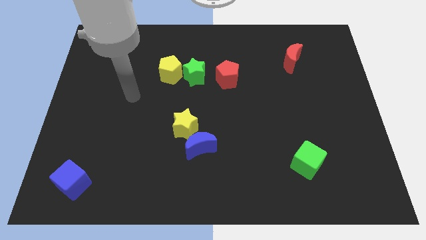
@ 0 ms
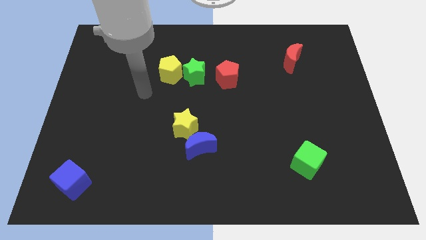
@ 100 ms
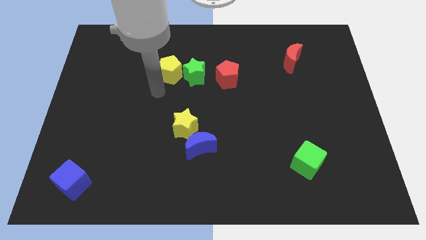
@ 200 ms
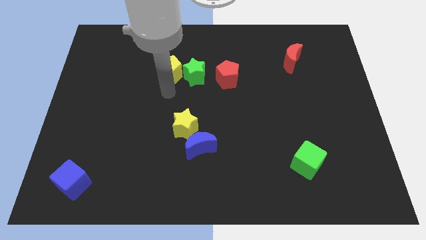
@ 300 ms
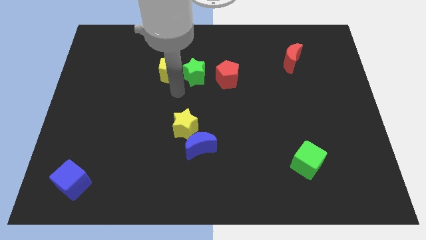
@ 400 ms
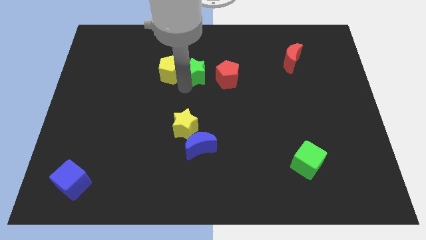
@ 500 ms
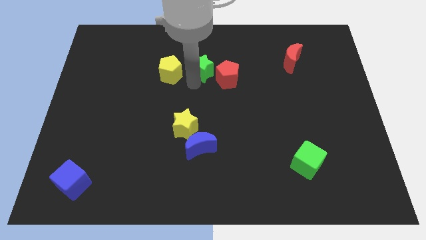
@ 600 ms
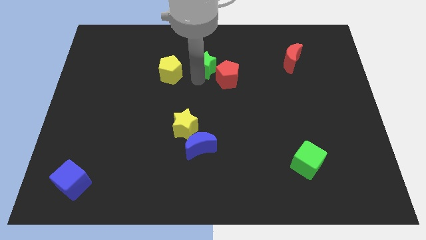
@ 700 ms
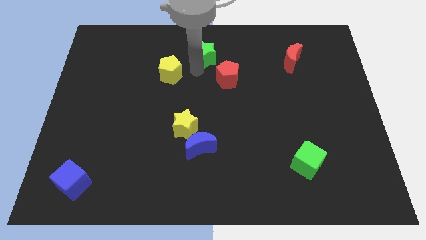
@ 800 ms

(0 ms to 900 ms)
separate the yellow pentagon from the green star

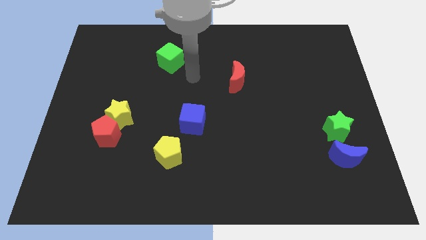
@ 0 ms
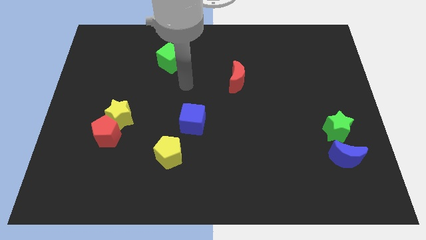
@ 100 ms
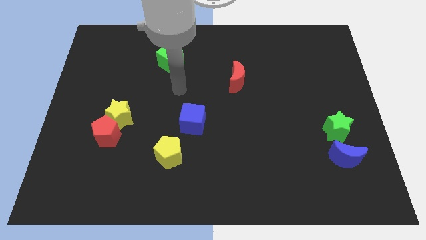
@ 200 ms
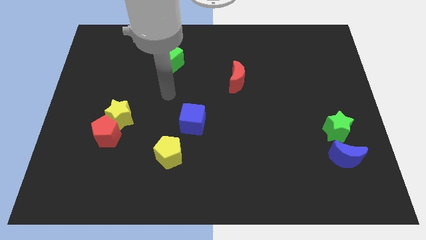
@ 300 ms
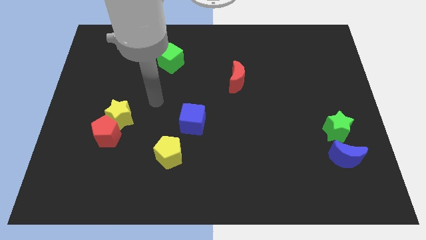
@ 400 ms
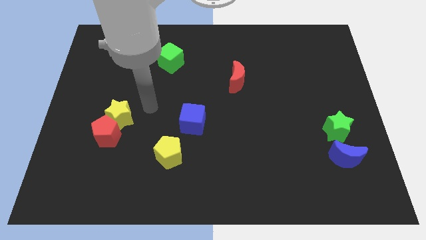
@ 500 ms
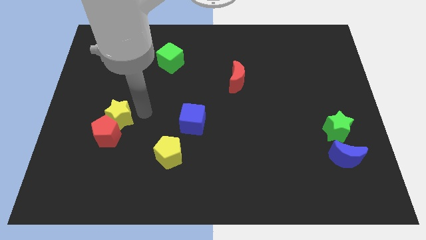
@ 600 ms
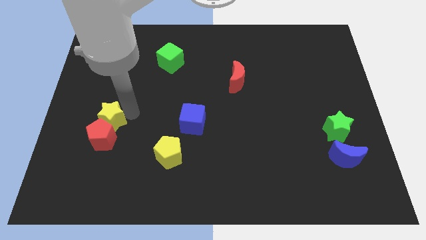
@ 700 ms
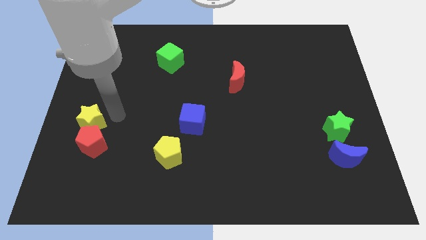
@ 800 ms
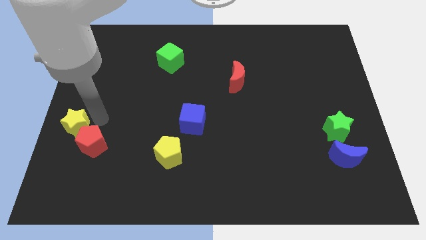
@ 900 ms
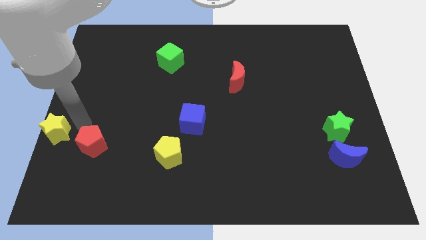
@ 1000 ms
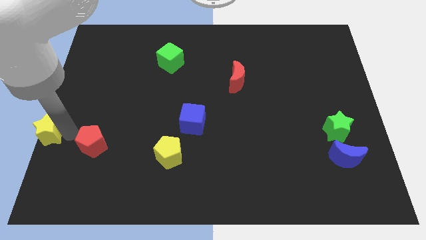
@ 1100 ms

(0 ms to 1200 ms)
move the red pentagon away from the yellow star

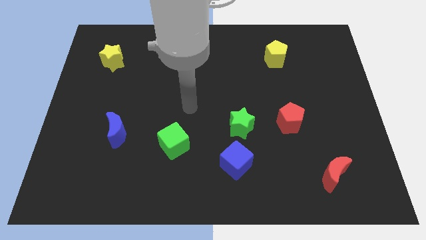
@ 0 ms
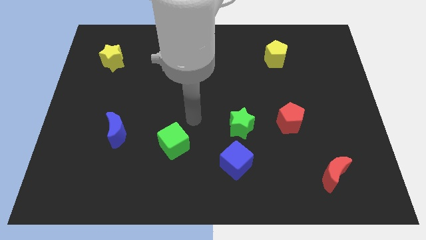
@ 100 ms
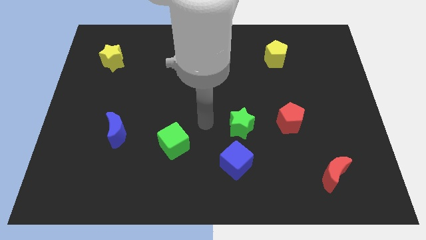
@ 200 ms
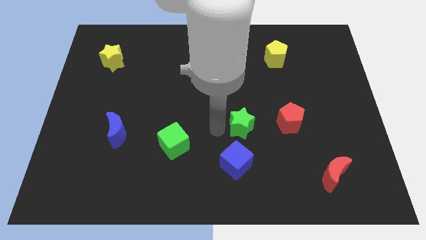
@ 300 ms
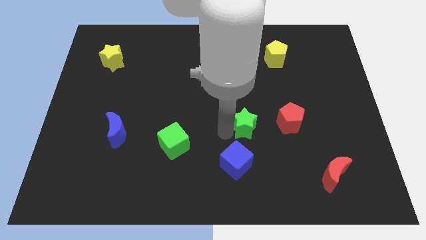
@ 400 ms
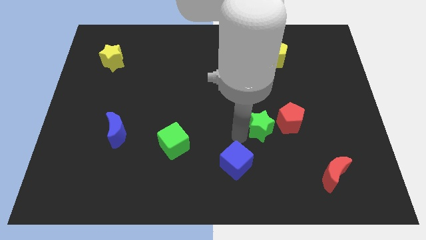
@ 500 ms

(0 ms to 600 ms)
pull the blue cube apart from the green star

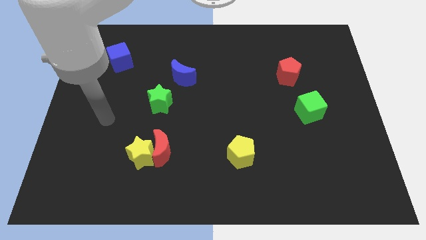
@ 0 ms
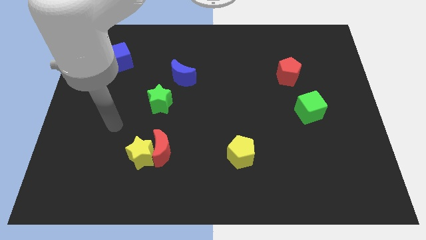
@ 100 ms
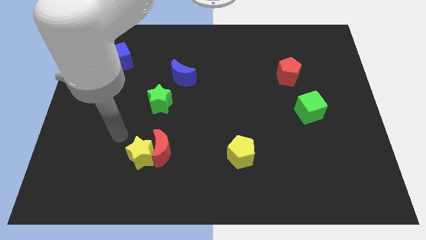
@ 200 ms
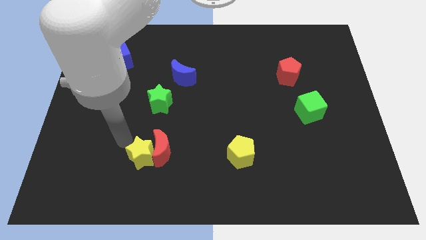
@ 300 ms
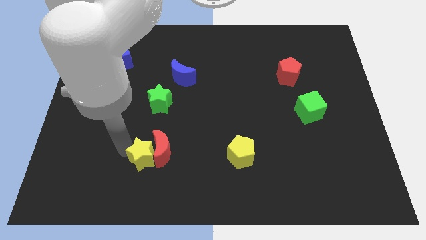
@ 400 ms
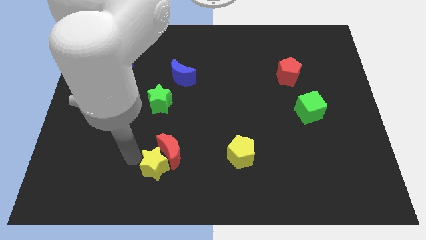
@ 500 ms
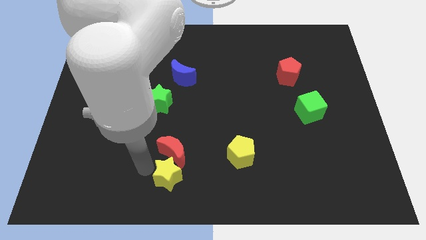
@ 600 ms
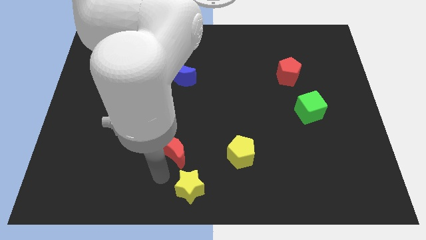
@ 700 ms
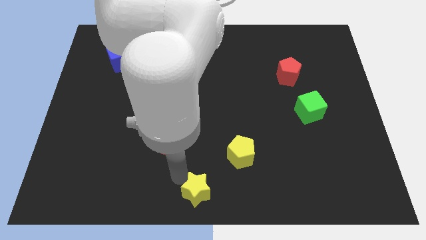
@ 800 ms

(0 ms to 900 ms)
move the red moon away from the yellow star

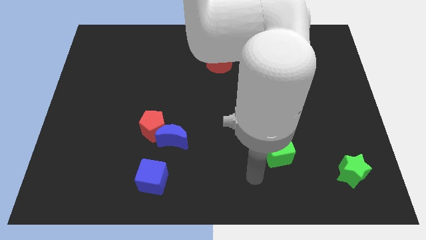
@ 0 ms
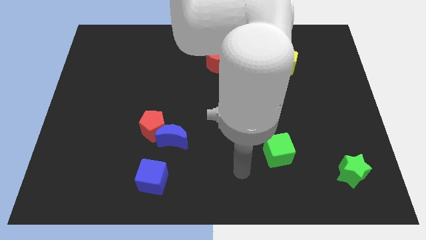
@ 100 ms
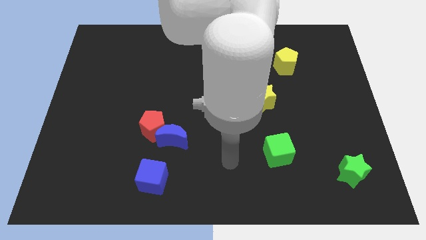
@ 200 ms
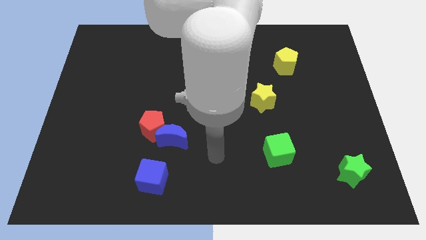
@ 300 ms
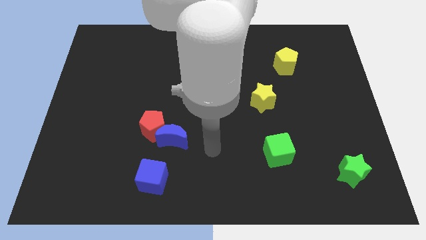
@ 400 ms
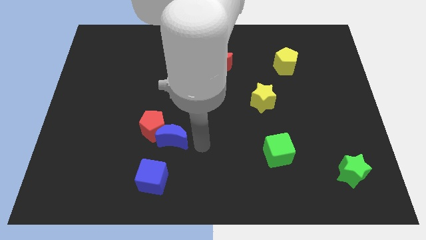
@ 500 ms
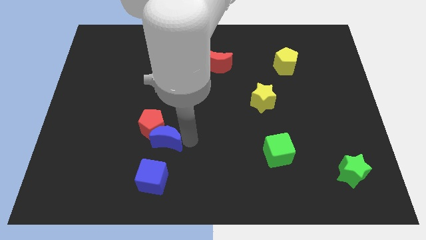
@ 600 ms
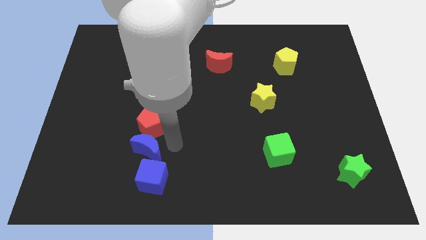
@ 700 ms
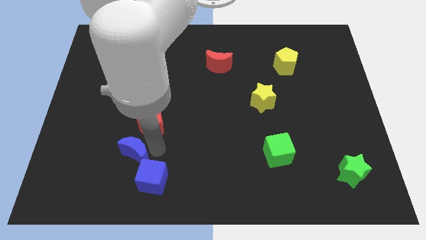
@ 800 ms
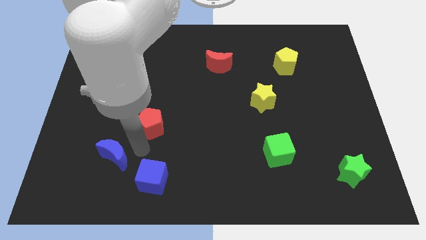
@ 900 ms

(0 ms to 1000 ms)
pull the red pentagon apart from the blue moon

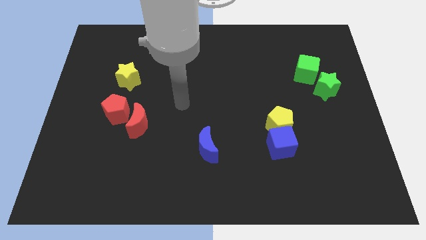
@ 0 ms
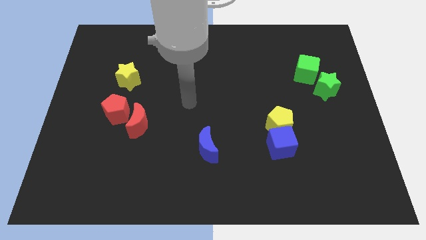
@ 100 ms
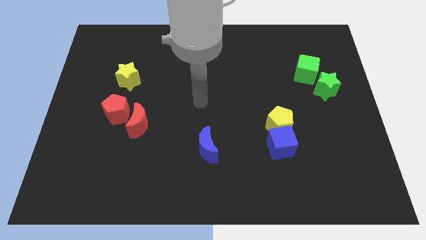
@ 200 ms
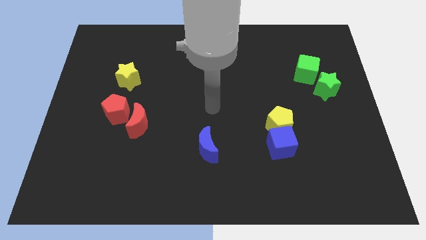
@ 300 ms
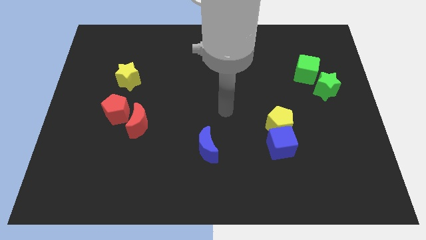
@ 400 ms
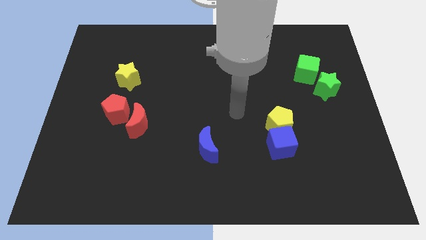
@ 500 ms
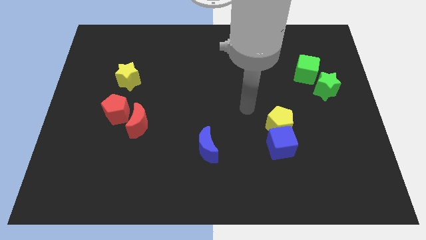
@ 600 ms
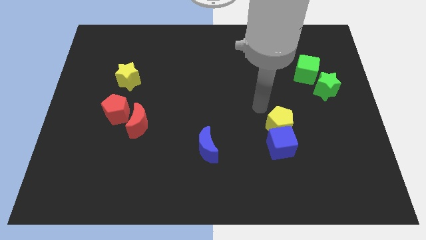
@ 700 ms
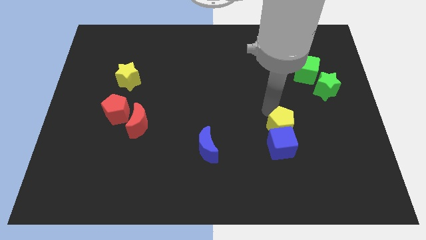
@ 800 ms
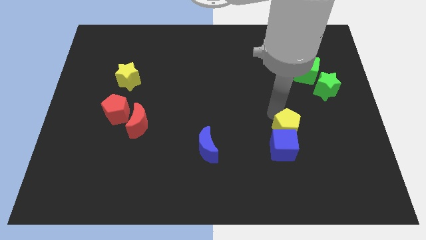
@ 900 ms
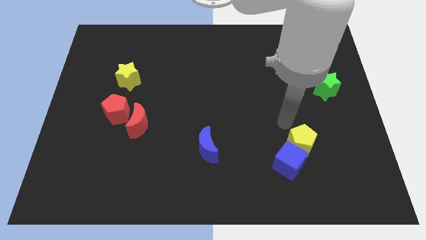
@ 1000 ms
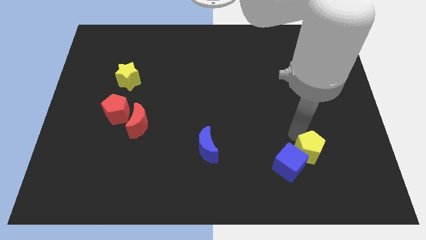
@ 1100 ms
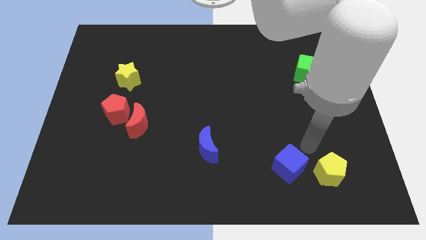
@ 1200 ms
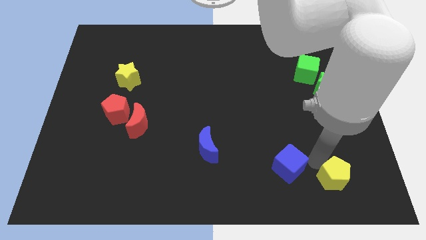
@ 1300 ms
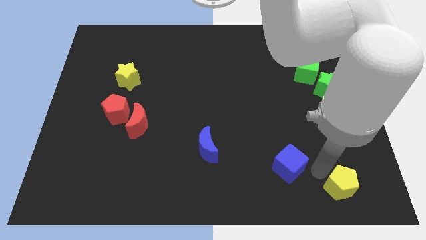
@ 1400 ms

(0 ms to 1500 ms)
pull the blue cube apart from the yellow pentagon

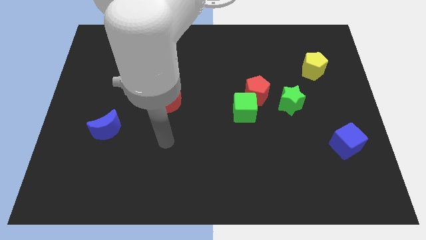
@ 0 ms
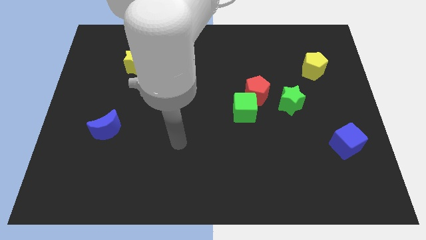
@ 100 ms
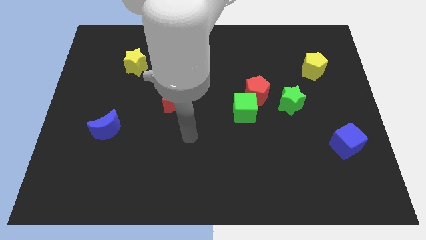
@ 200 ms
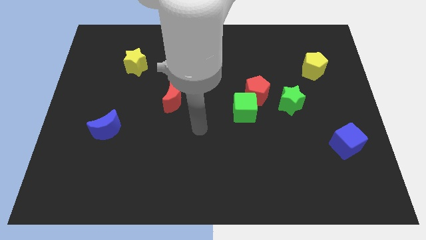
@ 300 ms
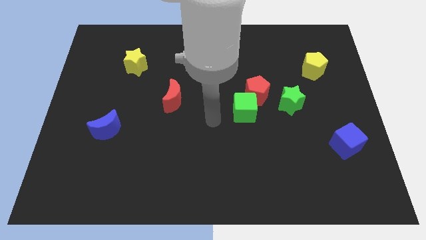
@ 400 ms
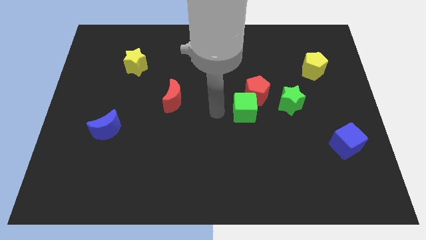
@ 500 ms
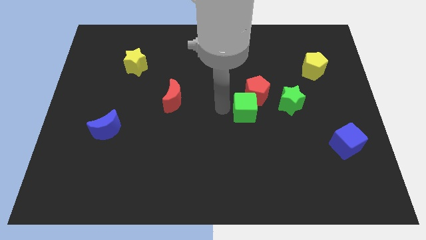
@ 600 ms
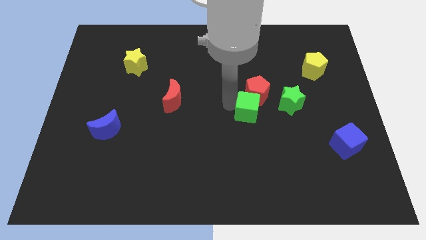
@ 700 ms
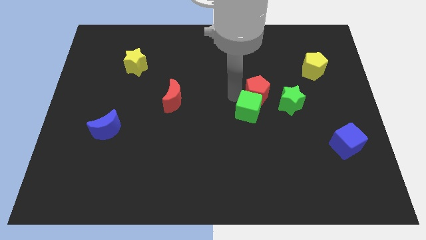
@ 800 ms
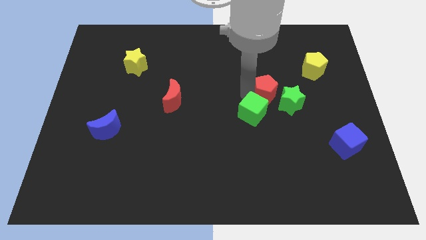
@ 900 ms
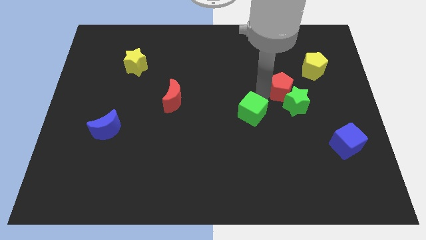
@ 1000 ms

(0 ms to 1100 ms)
move the green cube away from the red pentagon

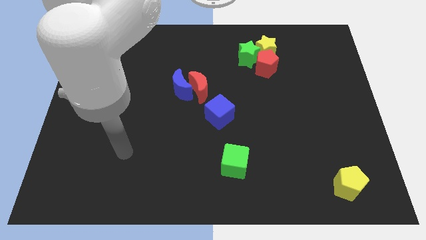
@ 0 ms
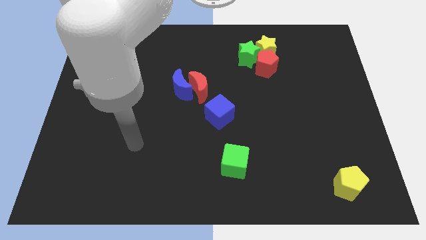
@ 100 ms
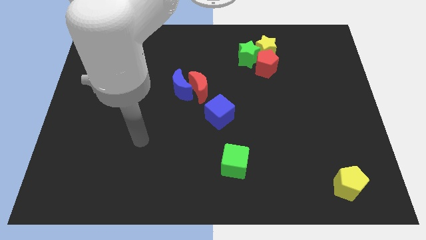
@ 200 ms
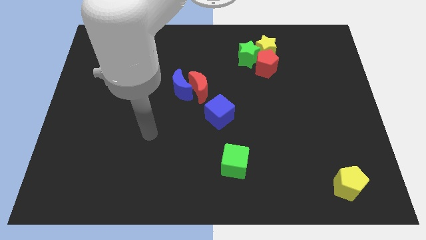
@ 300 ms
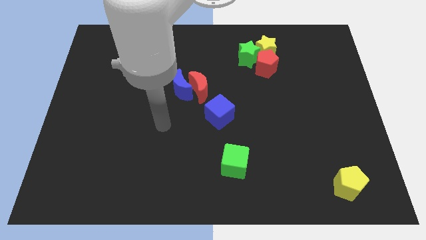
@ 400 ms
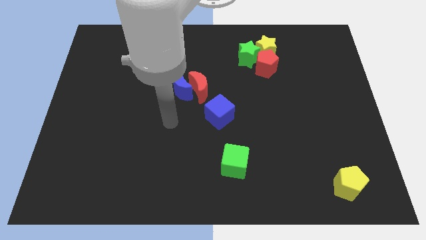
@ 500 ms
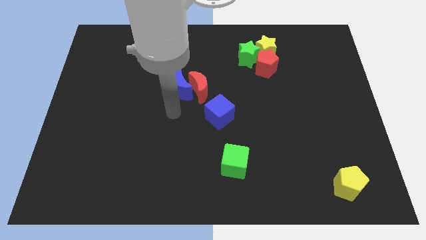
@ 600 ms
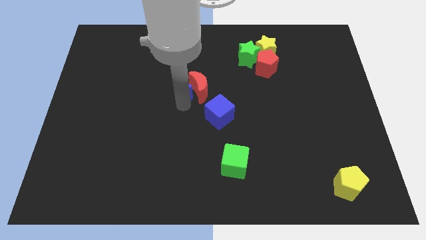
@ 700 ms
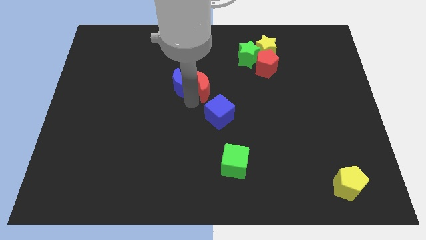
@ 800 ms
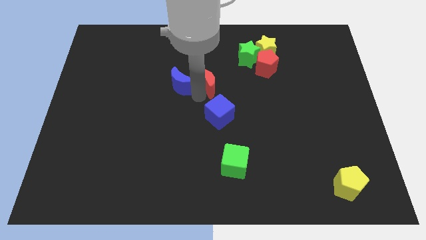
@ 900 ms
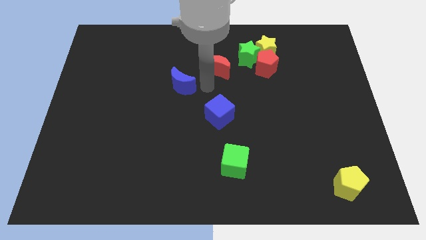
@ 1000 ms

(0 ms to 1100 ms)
separate the blue moon from the red moon

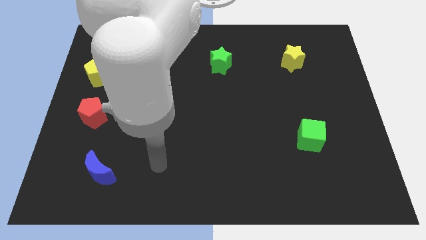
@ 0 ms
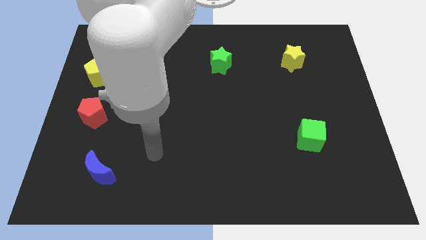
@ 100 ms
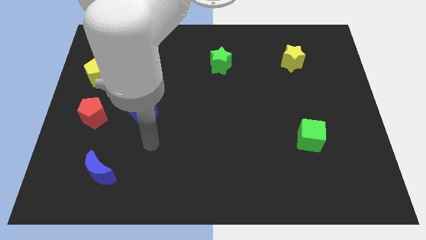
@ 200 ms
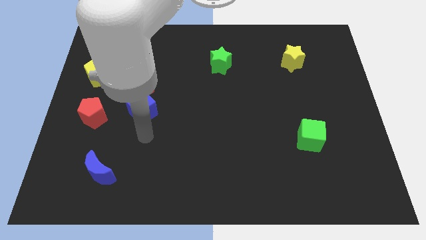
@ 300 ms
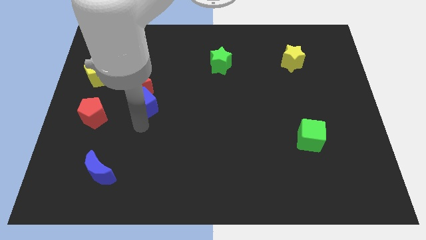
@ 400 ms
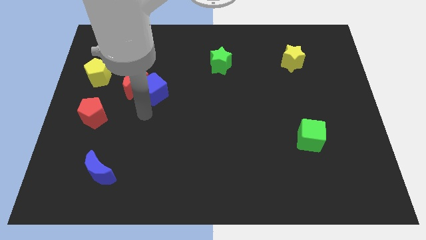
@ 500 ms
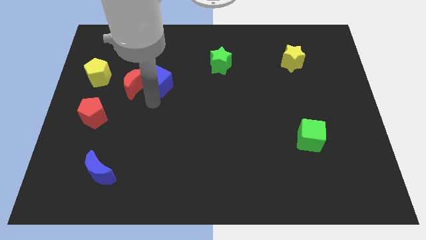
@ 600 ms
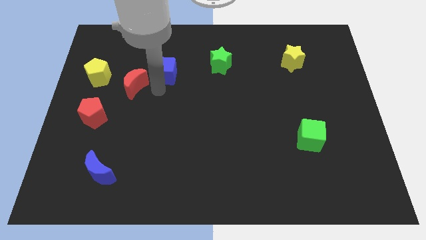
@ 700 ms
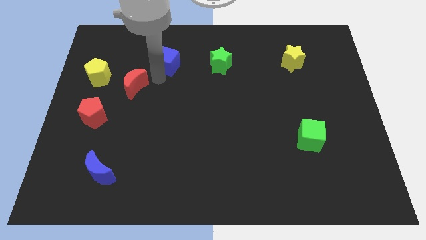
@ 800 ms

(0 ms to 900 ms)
pull the red moon apart from the blue cube

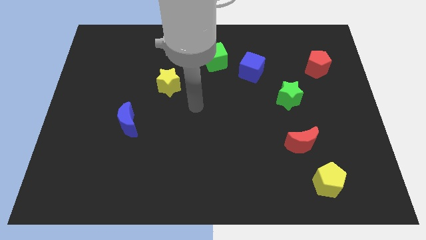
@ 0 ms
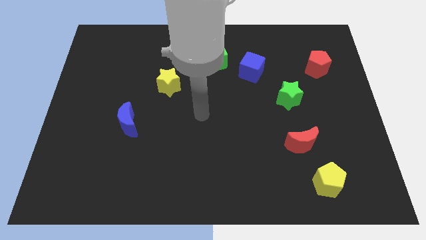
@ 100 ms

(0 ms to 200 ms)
move the red moon away from the yellow pentagon
